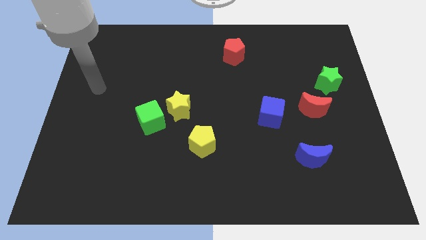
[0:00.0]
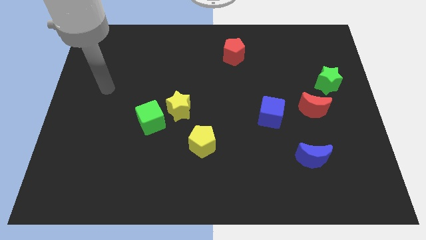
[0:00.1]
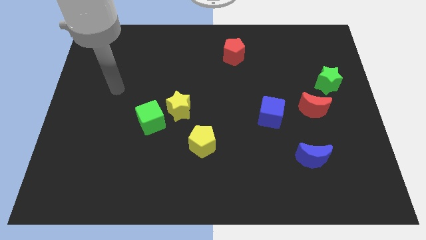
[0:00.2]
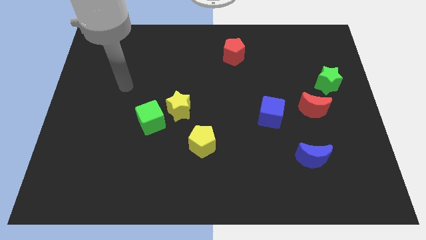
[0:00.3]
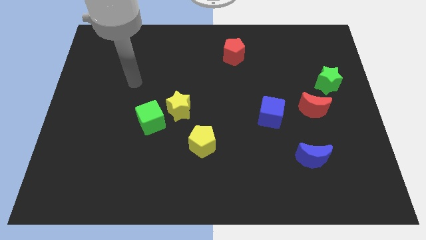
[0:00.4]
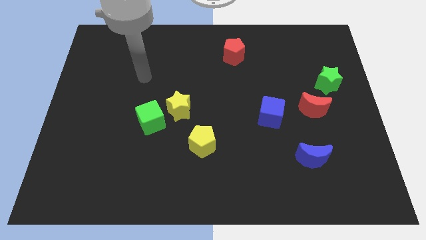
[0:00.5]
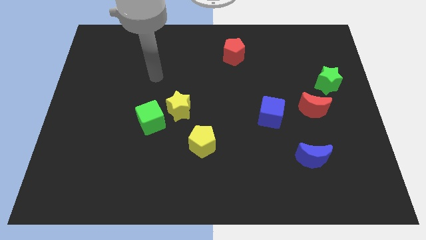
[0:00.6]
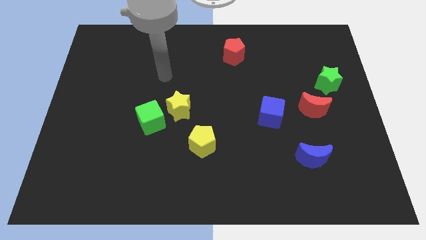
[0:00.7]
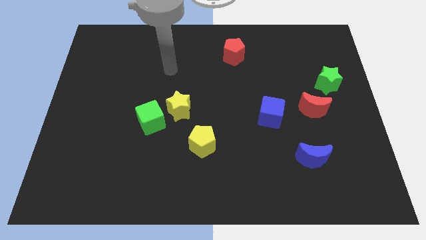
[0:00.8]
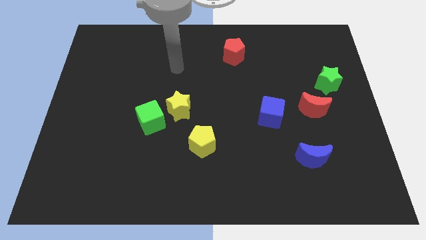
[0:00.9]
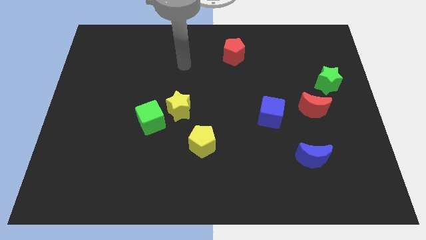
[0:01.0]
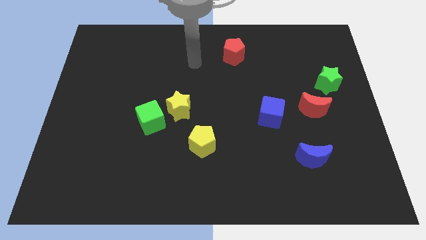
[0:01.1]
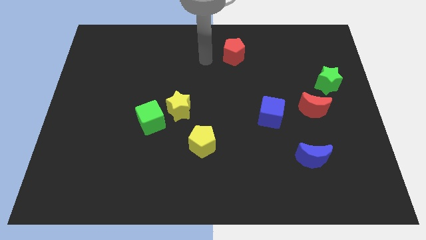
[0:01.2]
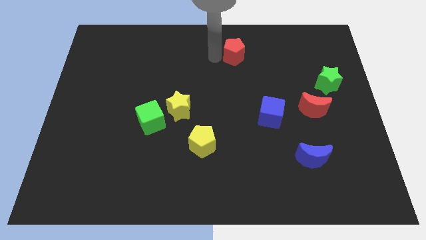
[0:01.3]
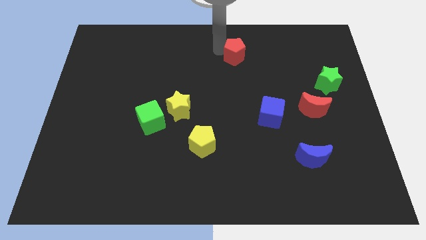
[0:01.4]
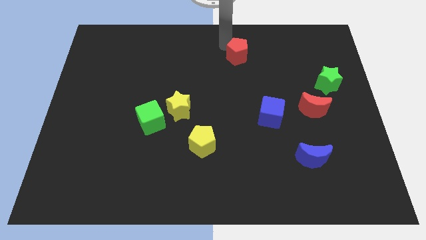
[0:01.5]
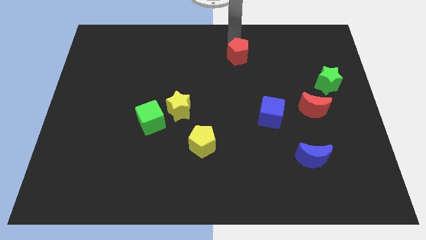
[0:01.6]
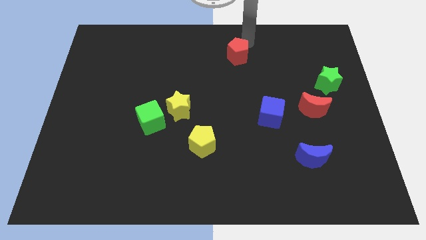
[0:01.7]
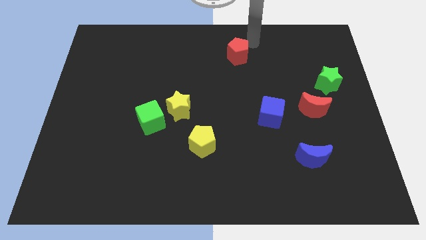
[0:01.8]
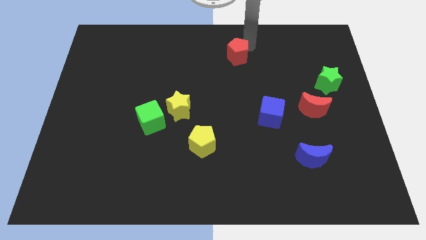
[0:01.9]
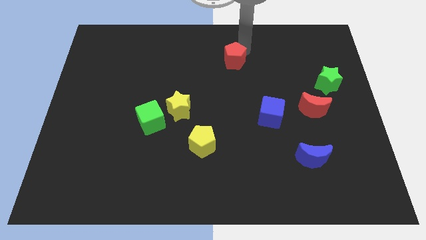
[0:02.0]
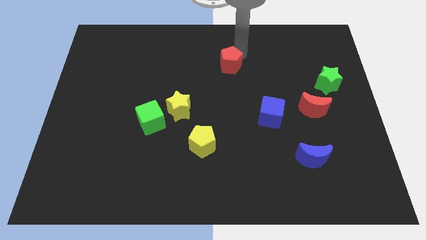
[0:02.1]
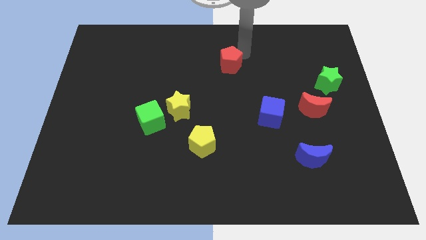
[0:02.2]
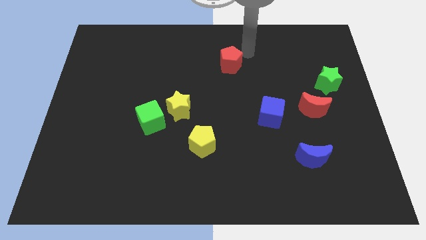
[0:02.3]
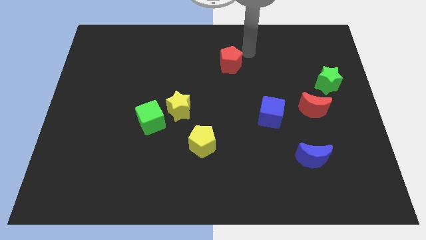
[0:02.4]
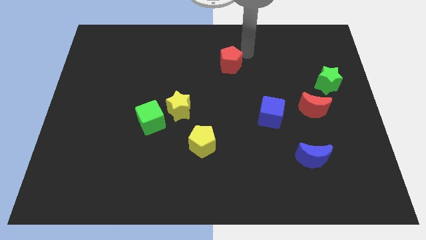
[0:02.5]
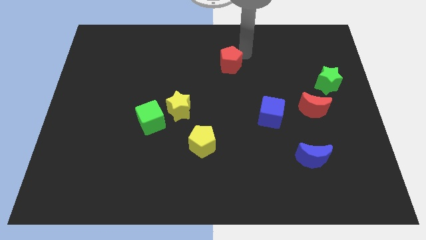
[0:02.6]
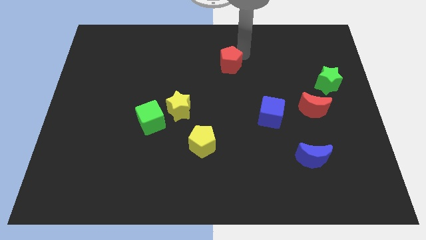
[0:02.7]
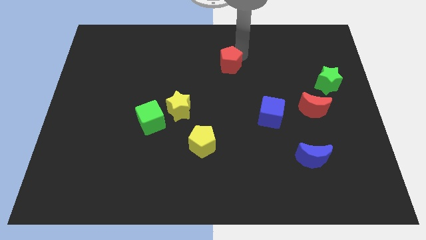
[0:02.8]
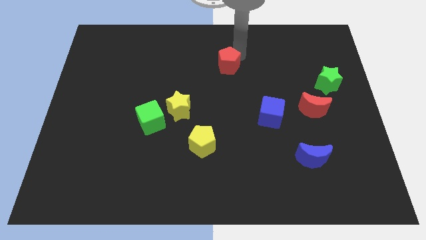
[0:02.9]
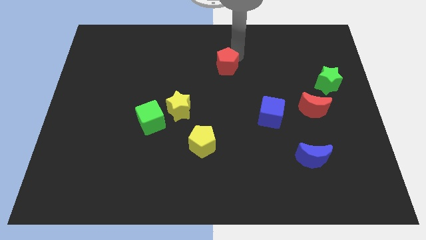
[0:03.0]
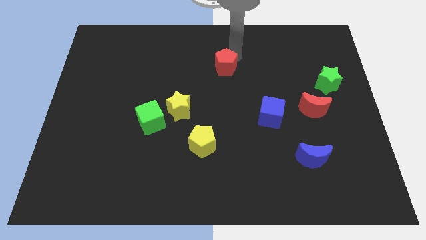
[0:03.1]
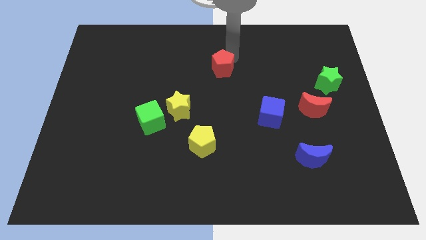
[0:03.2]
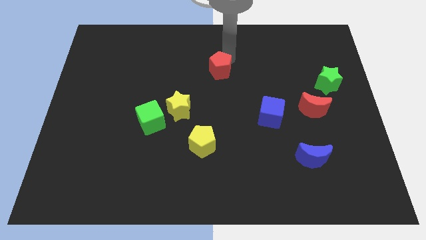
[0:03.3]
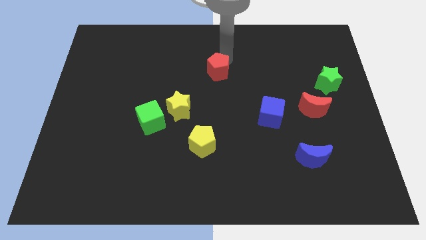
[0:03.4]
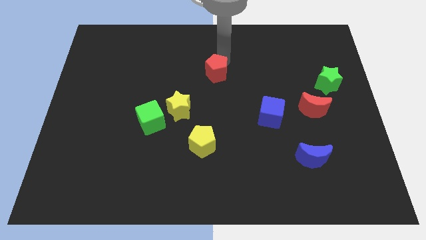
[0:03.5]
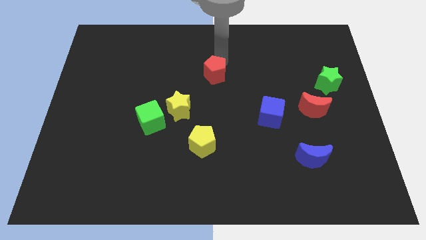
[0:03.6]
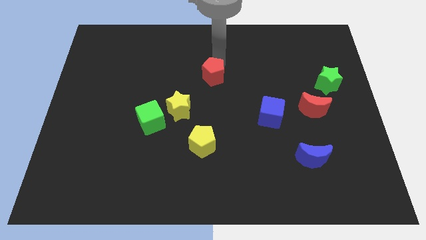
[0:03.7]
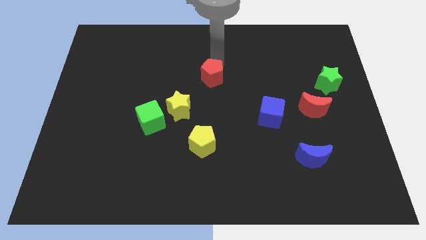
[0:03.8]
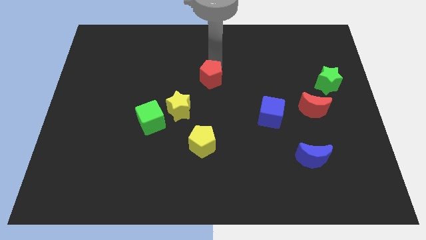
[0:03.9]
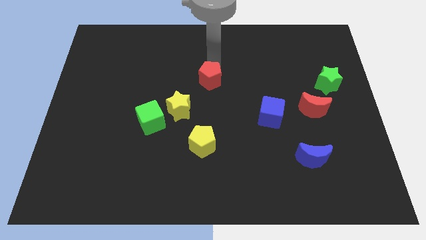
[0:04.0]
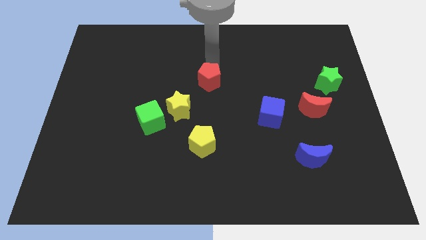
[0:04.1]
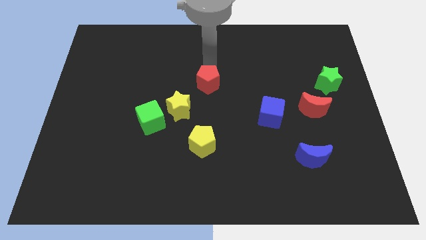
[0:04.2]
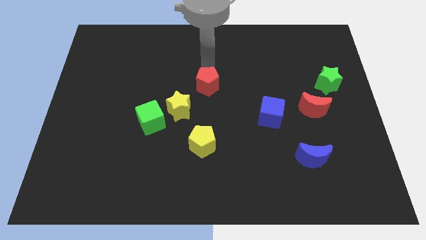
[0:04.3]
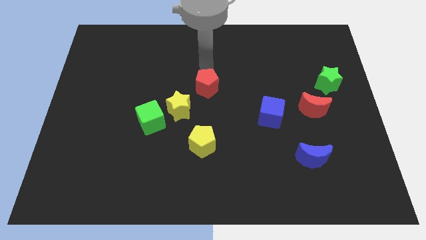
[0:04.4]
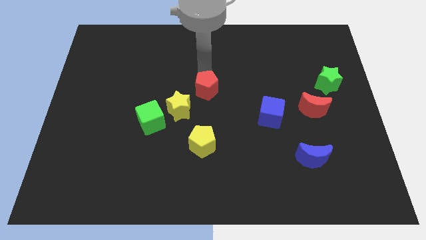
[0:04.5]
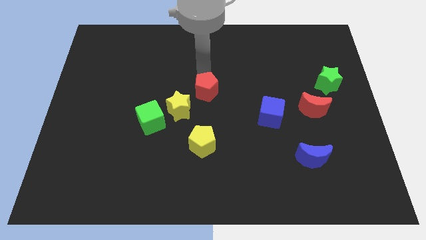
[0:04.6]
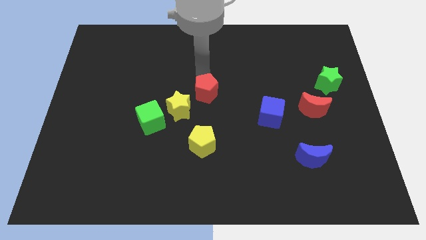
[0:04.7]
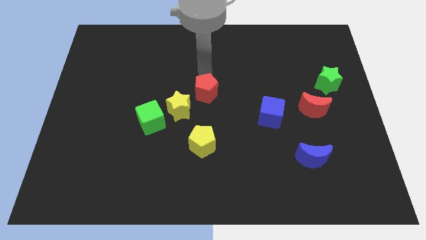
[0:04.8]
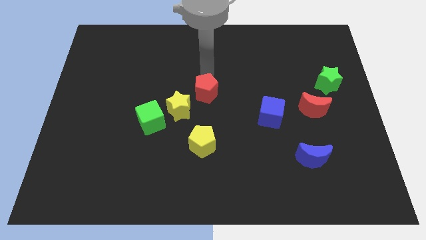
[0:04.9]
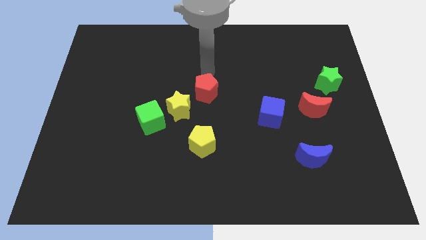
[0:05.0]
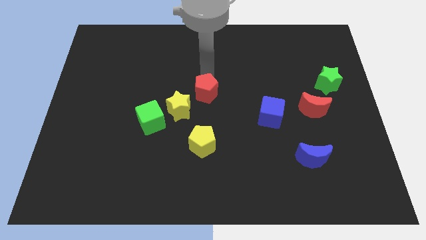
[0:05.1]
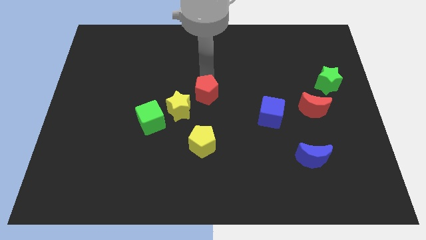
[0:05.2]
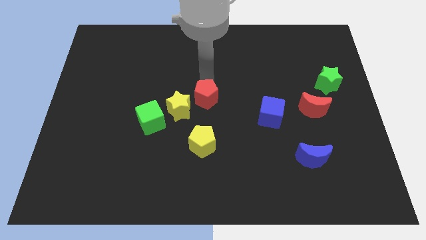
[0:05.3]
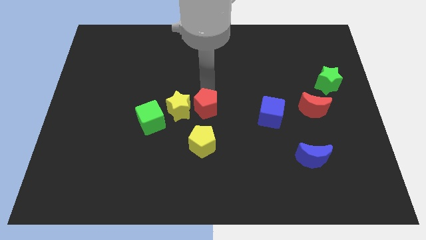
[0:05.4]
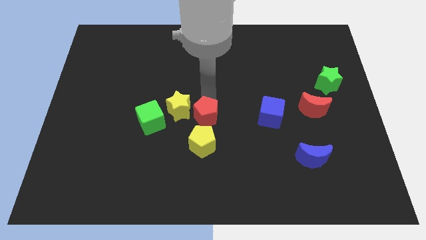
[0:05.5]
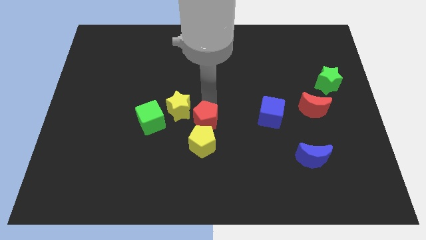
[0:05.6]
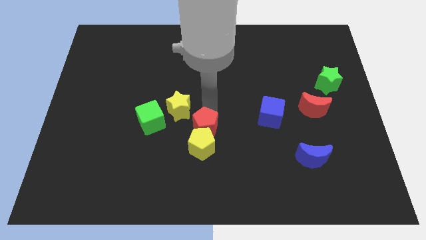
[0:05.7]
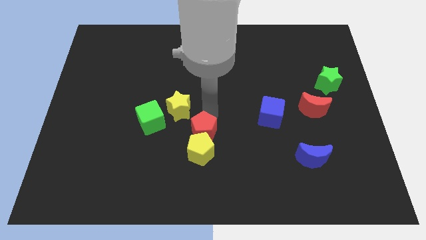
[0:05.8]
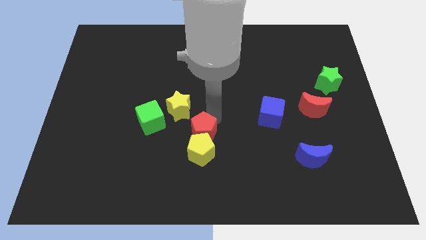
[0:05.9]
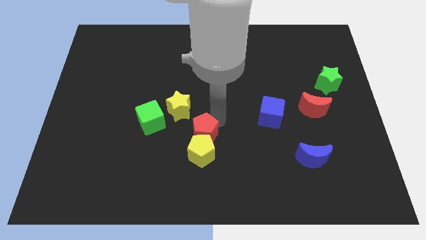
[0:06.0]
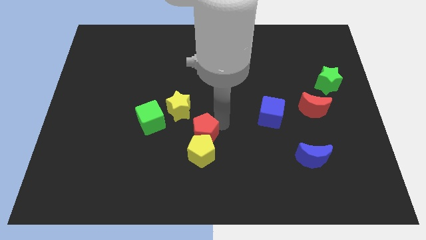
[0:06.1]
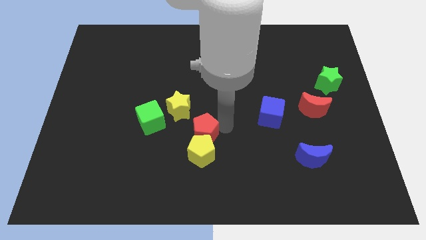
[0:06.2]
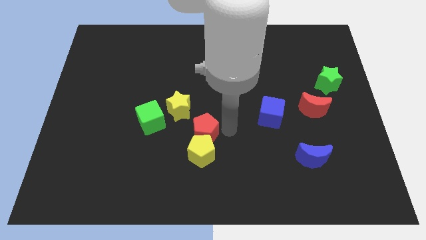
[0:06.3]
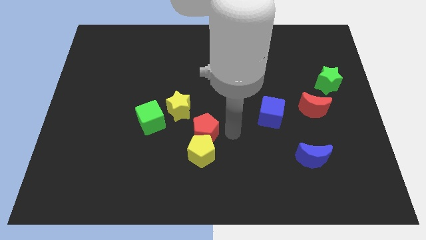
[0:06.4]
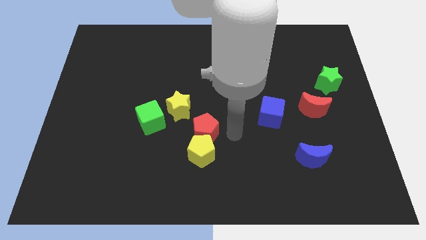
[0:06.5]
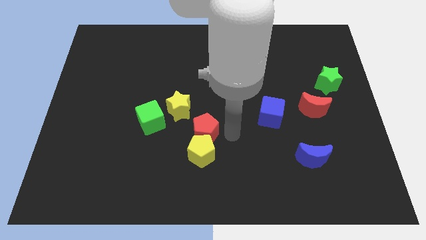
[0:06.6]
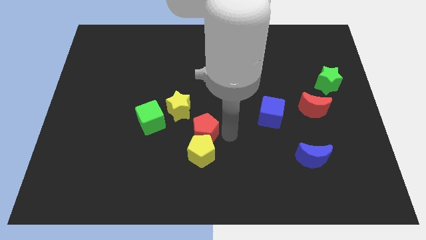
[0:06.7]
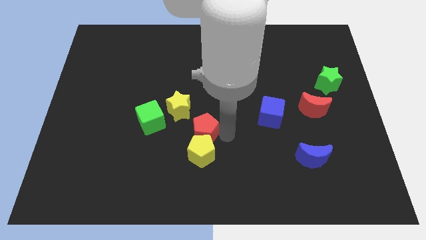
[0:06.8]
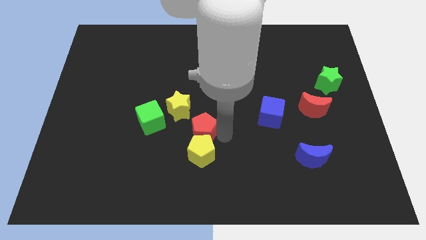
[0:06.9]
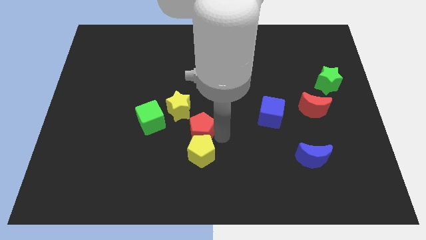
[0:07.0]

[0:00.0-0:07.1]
put the red pentagon below the yellow star
